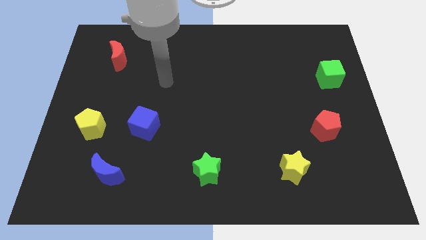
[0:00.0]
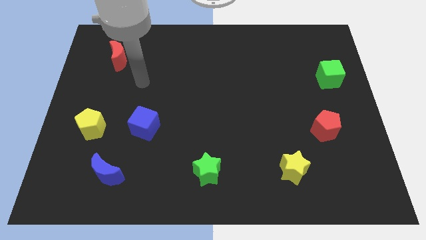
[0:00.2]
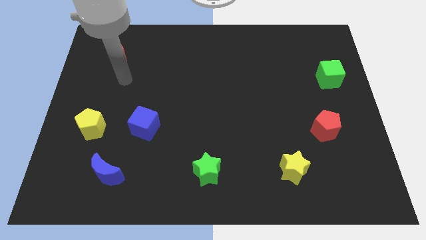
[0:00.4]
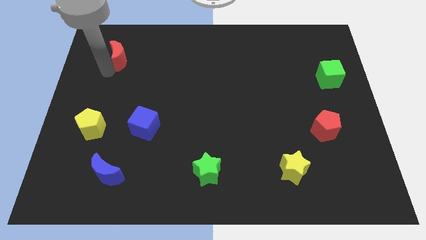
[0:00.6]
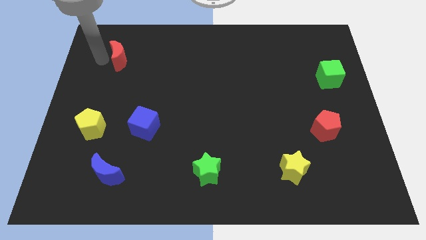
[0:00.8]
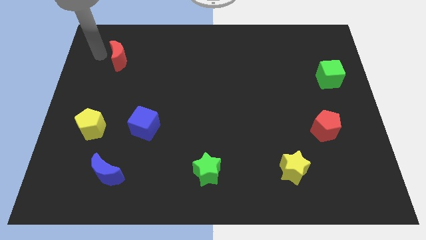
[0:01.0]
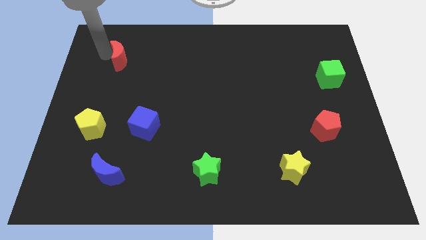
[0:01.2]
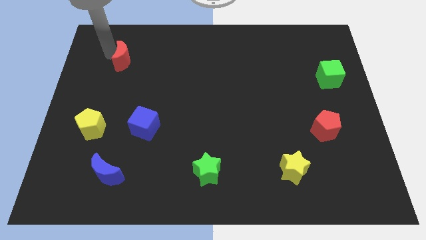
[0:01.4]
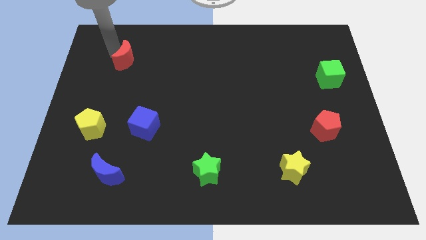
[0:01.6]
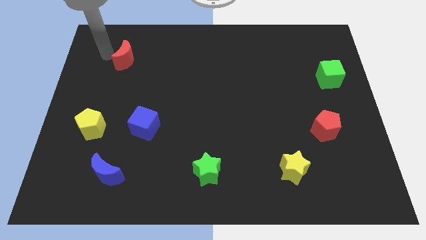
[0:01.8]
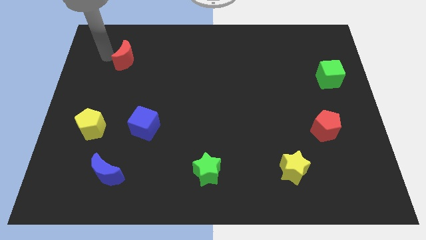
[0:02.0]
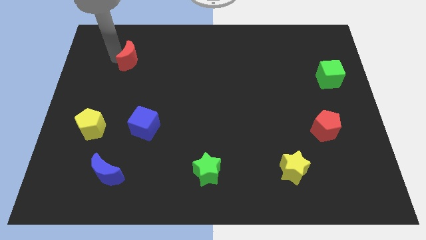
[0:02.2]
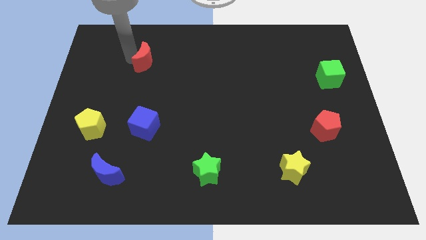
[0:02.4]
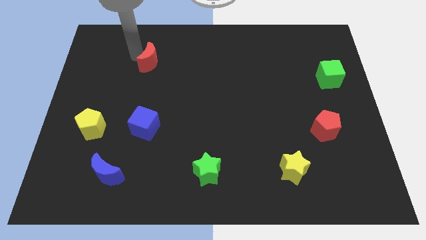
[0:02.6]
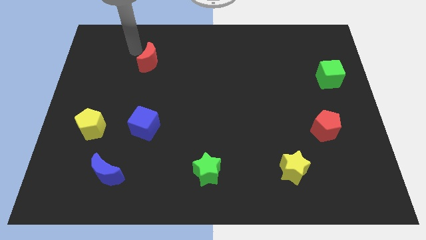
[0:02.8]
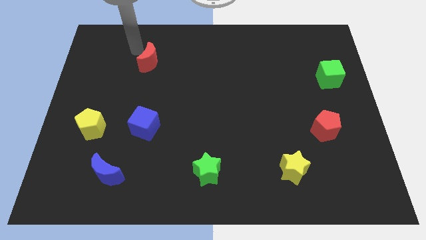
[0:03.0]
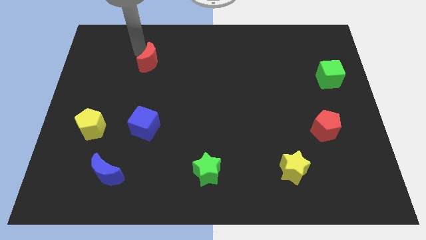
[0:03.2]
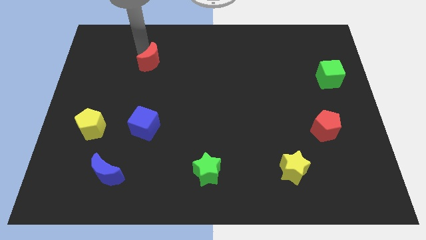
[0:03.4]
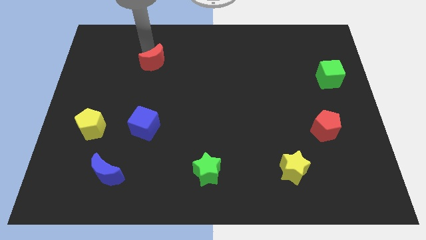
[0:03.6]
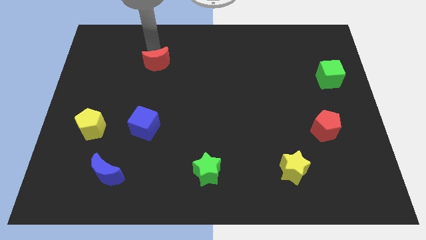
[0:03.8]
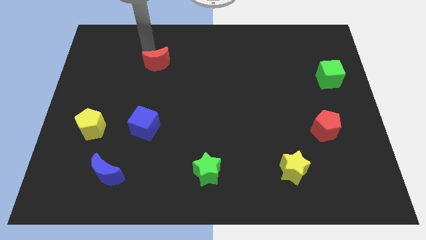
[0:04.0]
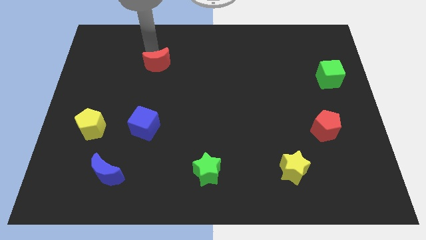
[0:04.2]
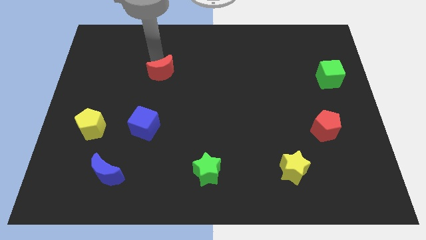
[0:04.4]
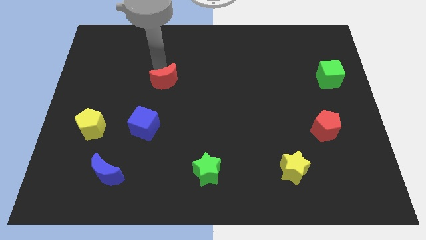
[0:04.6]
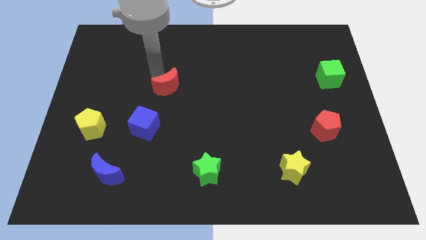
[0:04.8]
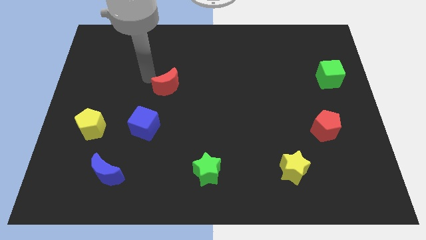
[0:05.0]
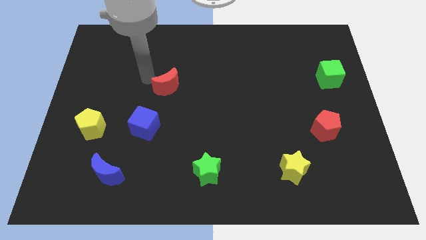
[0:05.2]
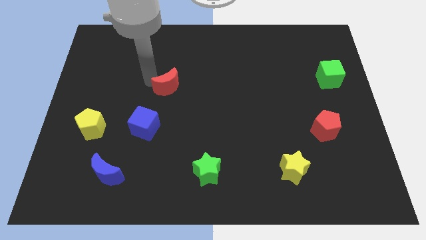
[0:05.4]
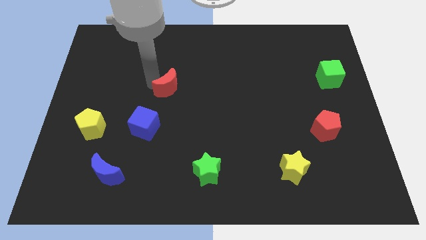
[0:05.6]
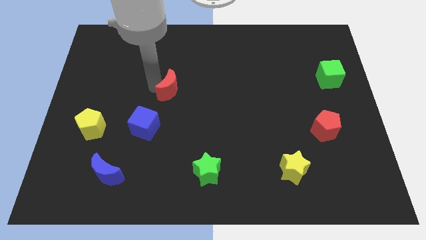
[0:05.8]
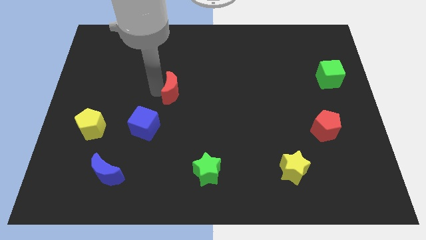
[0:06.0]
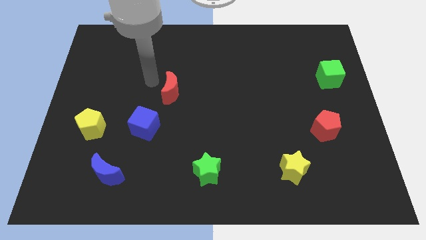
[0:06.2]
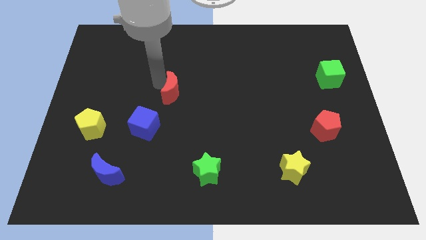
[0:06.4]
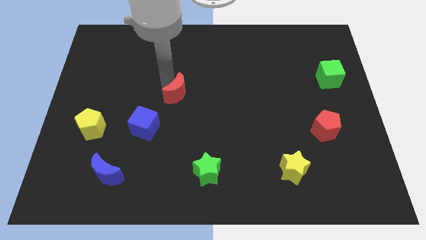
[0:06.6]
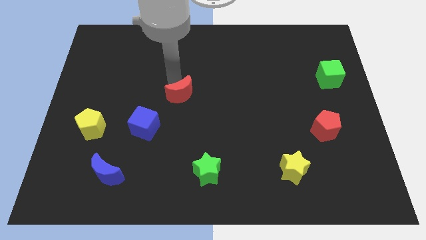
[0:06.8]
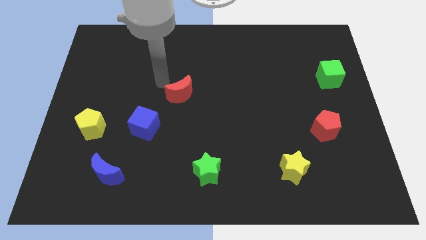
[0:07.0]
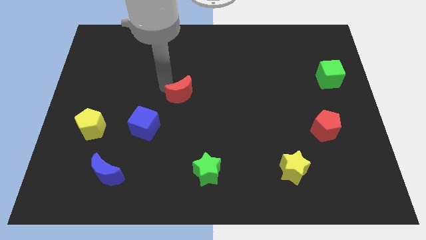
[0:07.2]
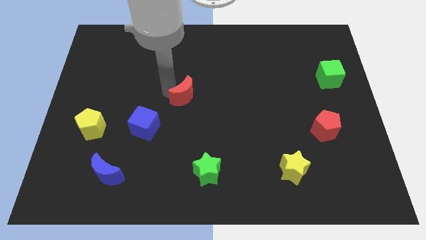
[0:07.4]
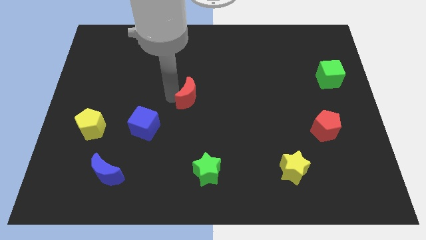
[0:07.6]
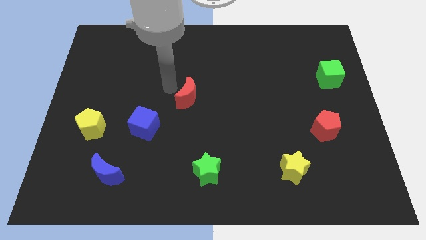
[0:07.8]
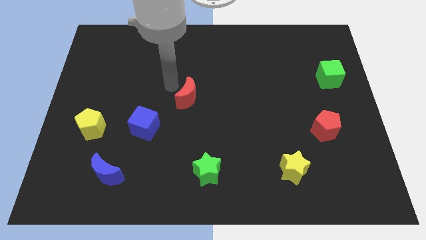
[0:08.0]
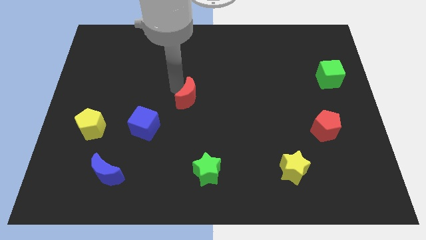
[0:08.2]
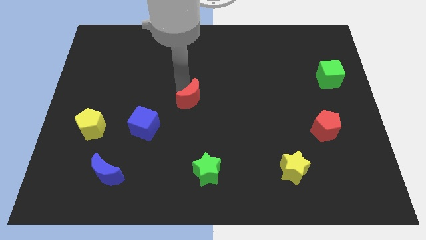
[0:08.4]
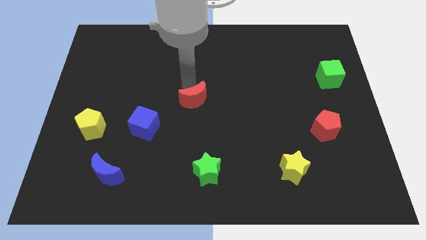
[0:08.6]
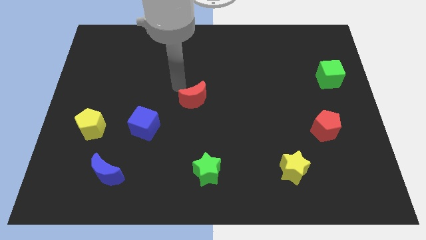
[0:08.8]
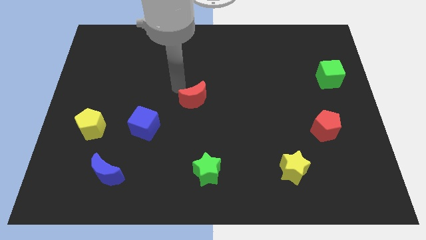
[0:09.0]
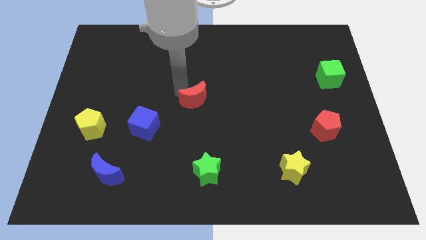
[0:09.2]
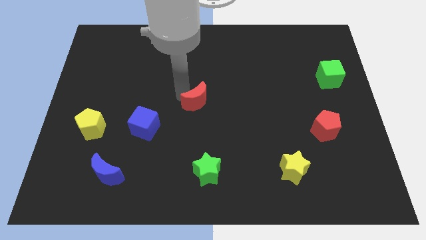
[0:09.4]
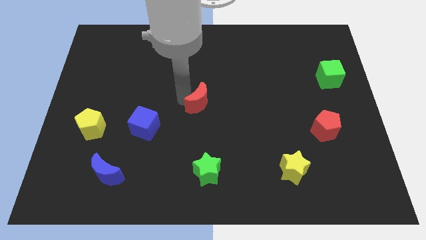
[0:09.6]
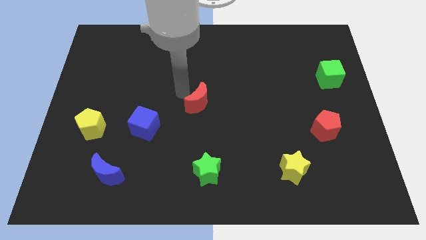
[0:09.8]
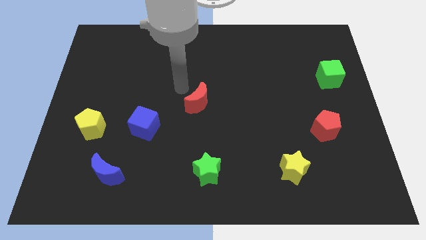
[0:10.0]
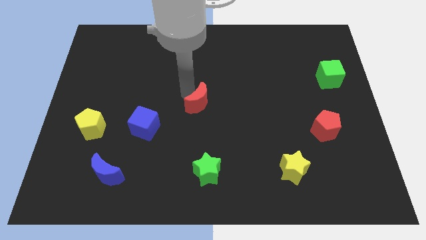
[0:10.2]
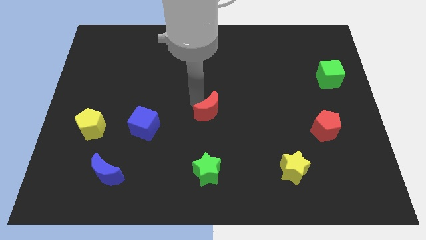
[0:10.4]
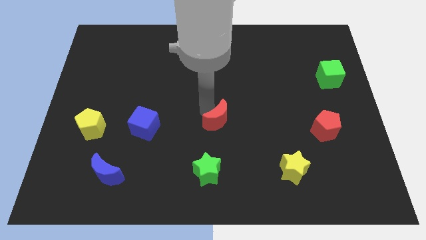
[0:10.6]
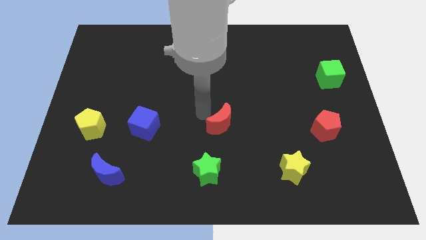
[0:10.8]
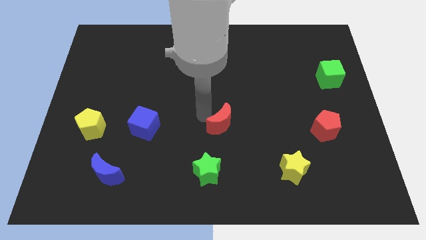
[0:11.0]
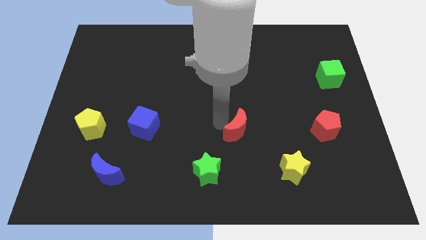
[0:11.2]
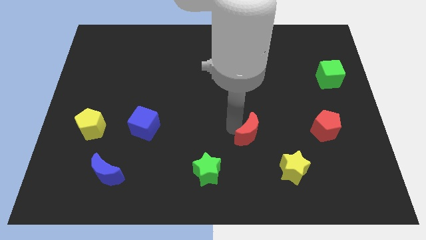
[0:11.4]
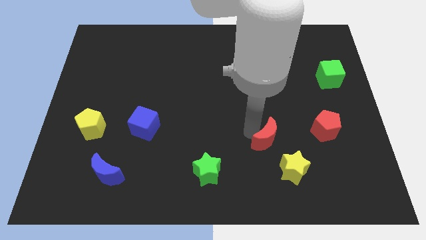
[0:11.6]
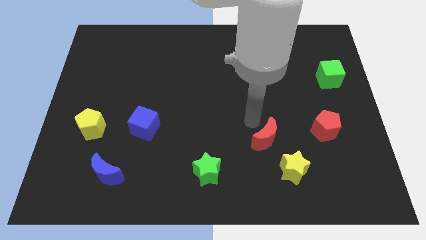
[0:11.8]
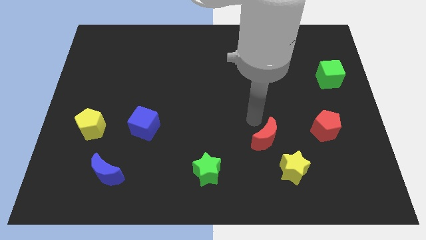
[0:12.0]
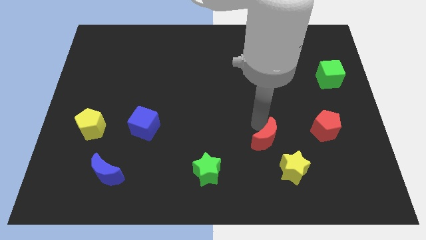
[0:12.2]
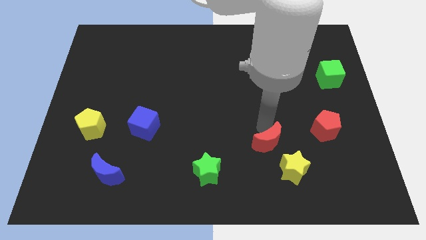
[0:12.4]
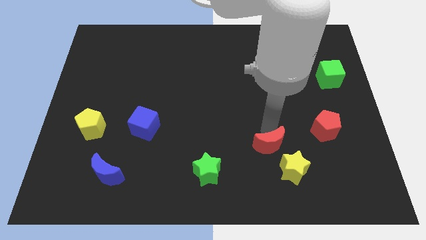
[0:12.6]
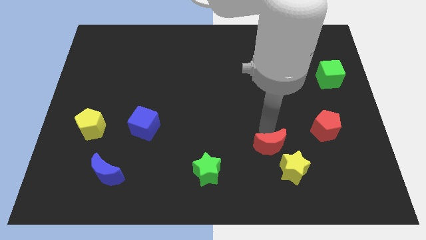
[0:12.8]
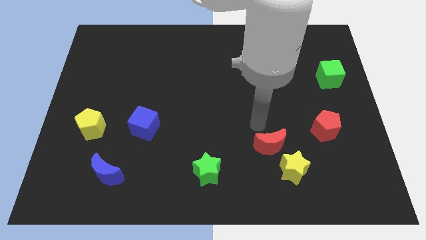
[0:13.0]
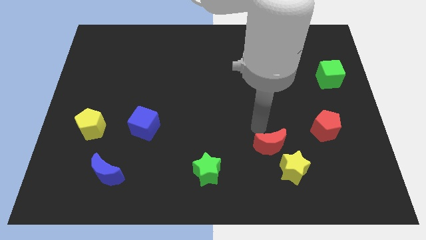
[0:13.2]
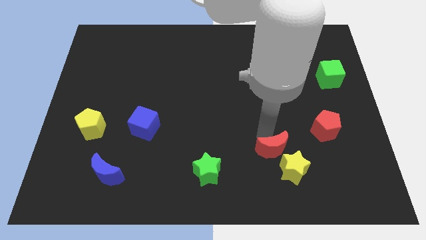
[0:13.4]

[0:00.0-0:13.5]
move the red moon next to the yellow star

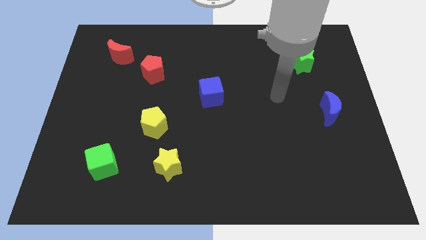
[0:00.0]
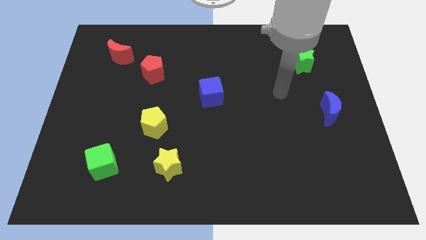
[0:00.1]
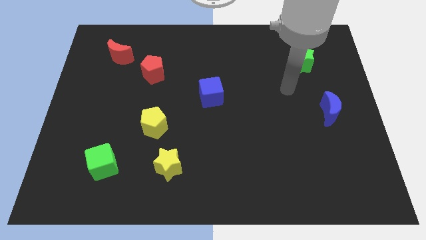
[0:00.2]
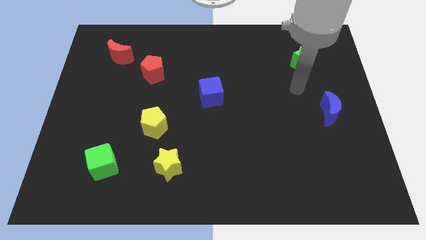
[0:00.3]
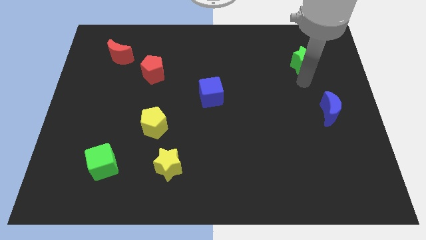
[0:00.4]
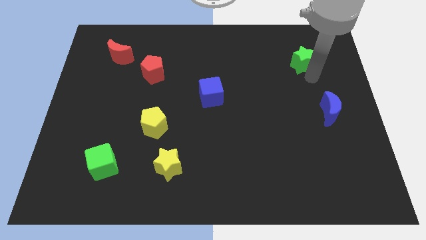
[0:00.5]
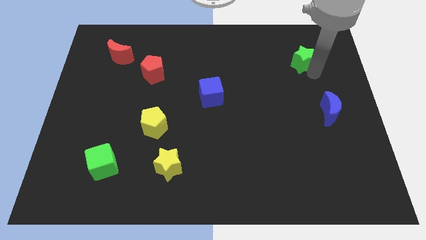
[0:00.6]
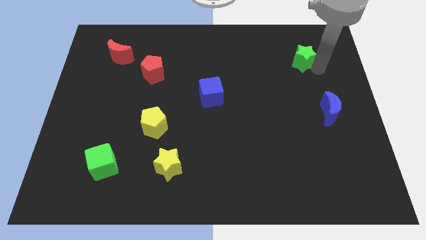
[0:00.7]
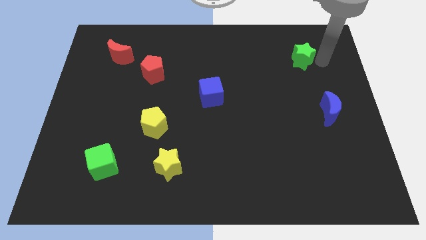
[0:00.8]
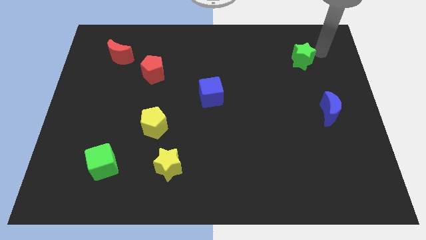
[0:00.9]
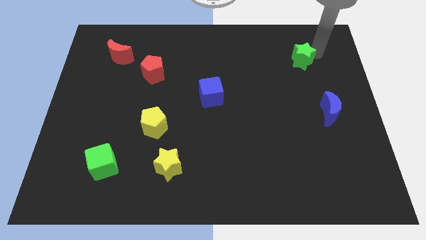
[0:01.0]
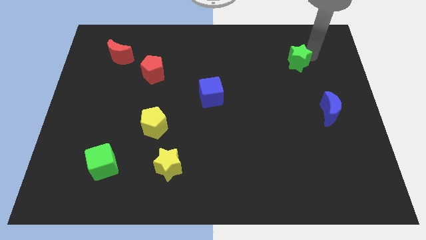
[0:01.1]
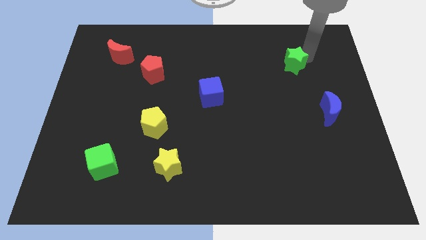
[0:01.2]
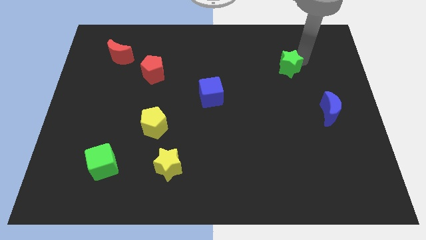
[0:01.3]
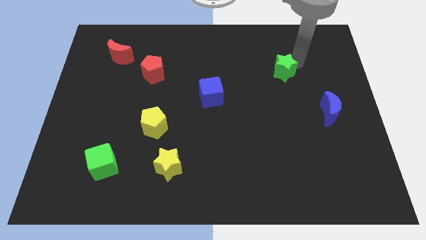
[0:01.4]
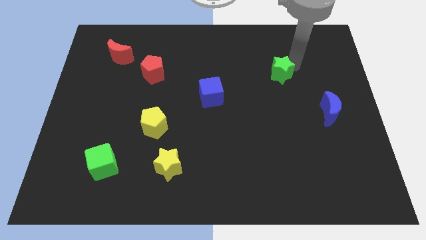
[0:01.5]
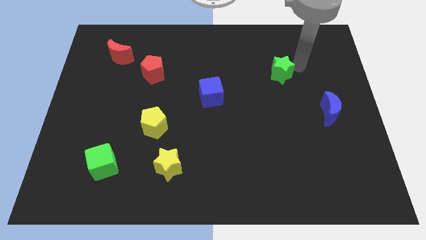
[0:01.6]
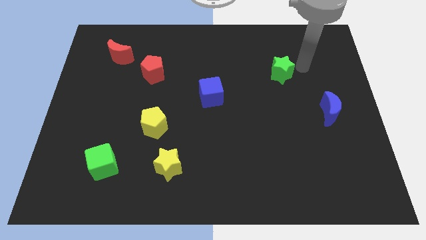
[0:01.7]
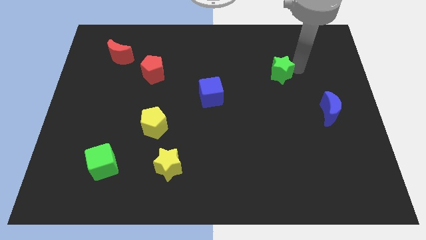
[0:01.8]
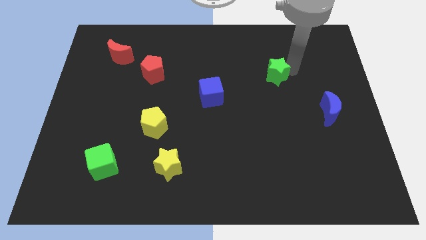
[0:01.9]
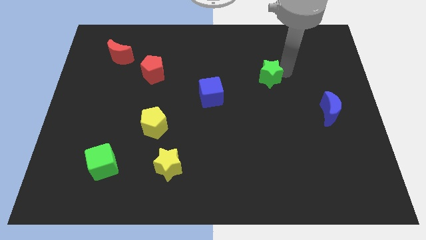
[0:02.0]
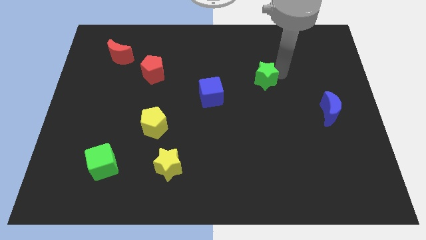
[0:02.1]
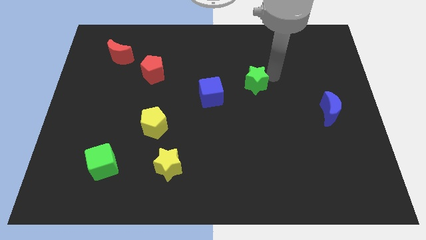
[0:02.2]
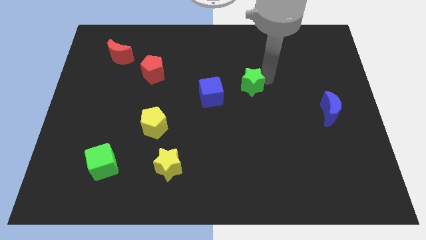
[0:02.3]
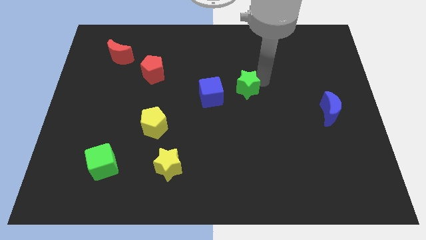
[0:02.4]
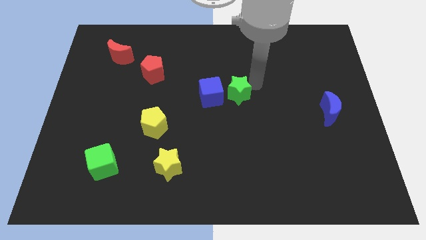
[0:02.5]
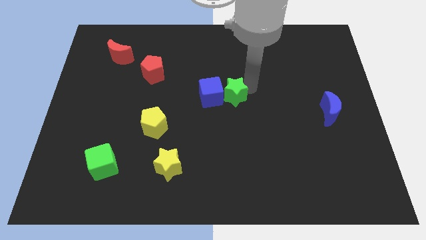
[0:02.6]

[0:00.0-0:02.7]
put the green star to the blue cube
